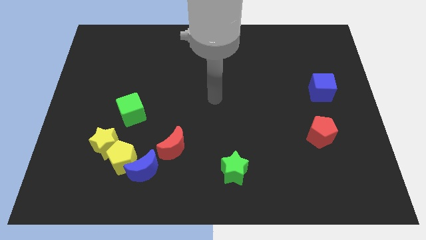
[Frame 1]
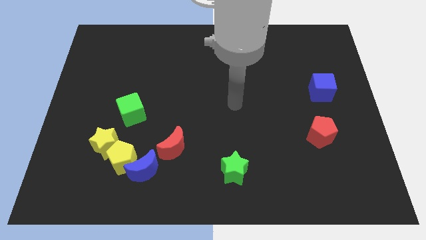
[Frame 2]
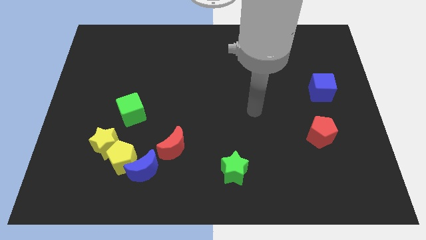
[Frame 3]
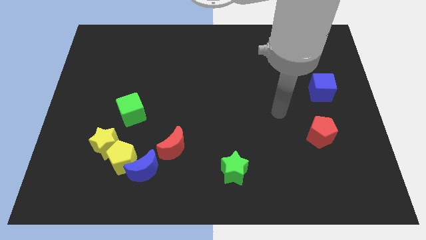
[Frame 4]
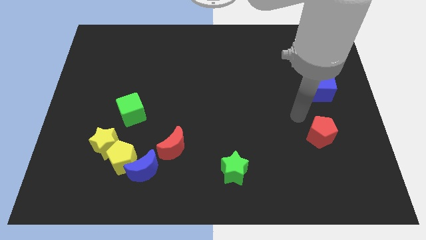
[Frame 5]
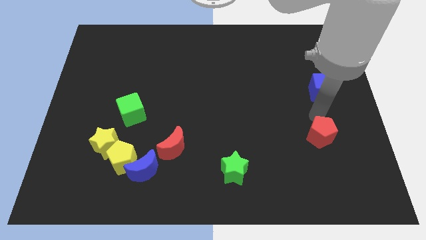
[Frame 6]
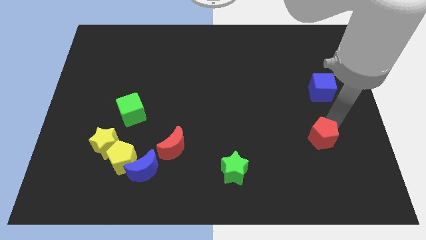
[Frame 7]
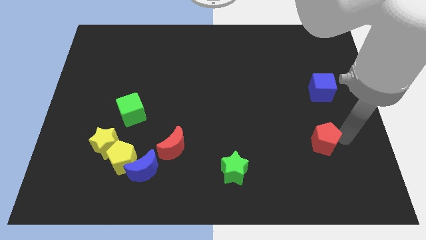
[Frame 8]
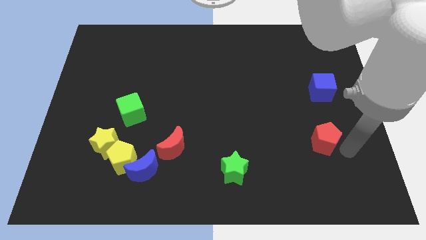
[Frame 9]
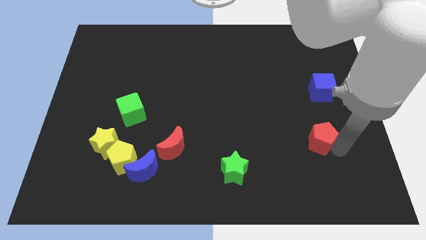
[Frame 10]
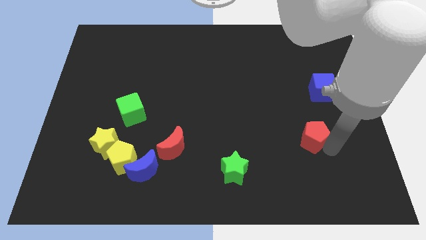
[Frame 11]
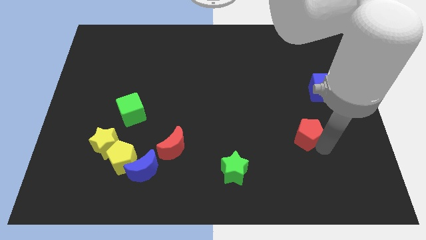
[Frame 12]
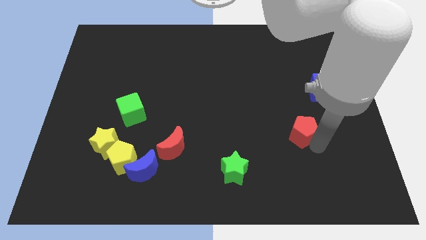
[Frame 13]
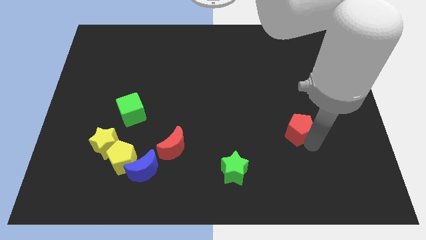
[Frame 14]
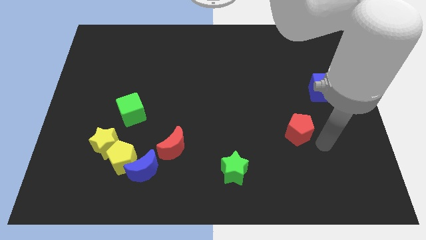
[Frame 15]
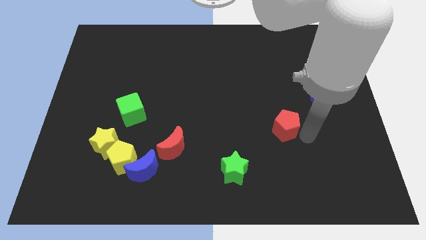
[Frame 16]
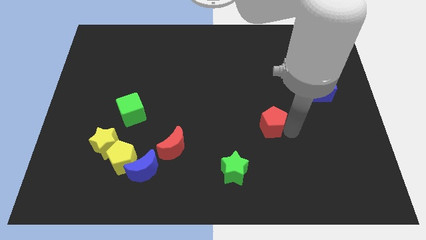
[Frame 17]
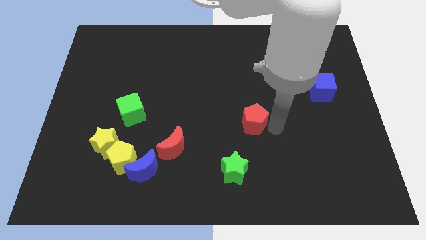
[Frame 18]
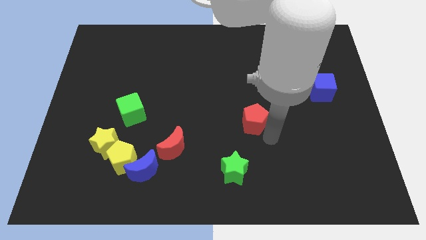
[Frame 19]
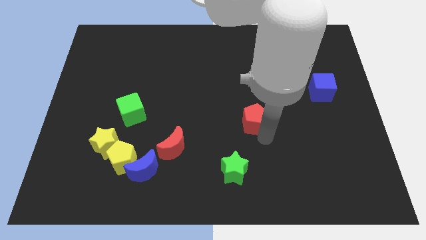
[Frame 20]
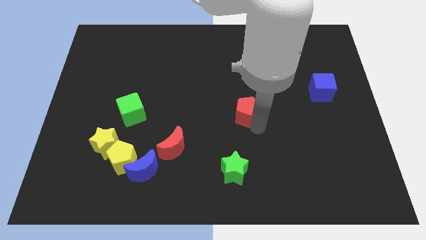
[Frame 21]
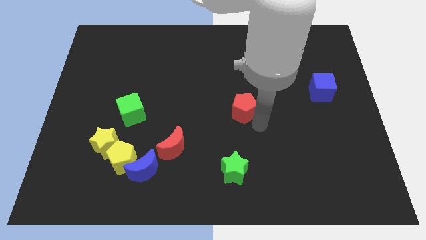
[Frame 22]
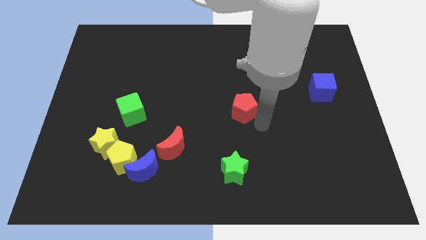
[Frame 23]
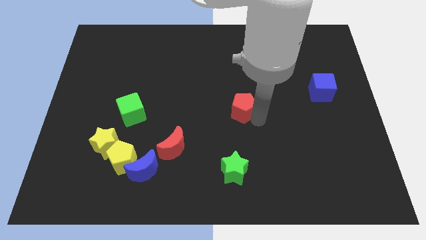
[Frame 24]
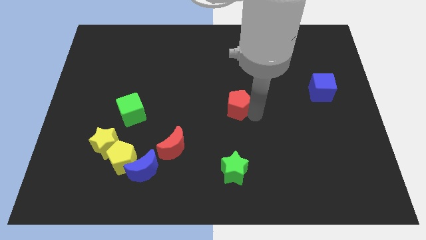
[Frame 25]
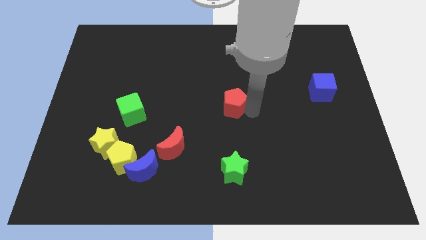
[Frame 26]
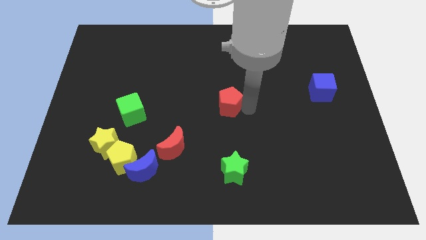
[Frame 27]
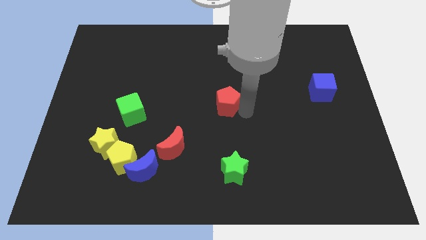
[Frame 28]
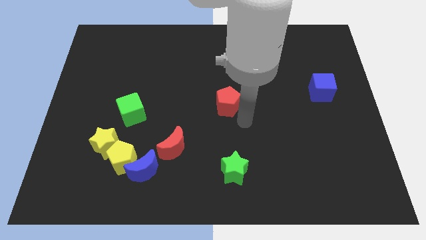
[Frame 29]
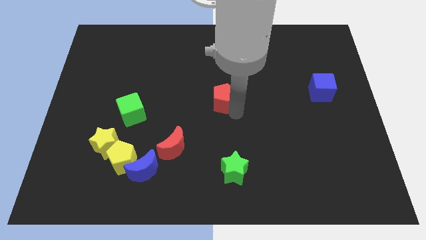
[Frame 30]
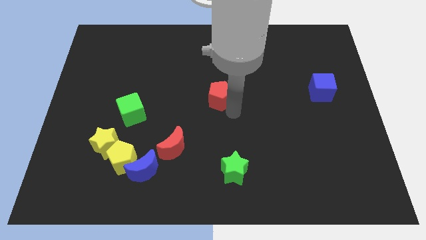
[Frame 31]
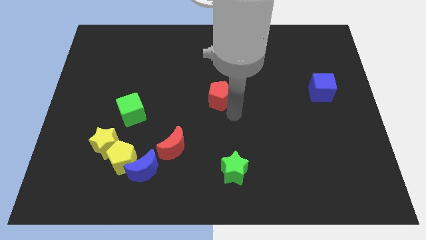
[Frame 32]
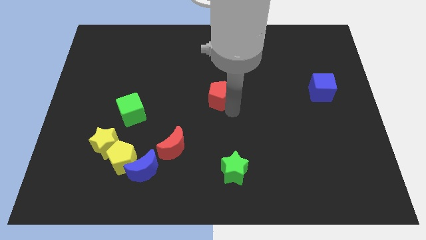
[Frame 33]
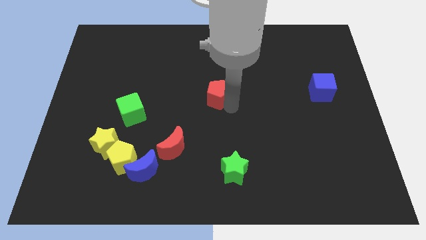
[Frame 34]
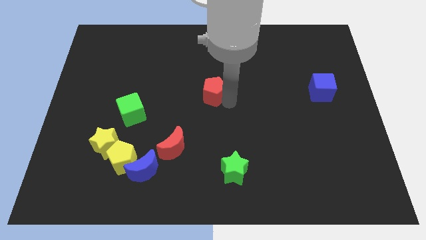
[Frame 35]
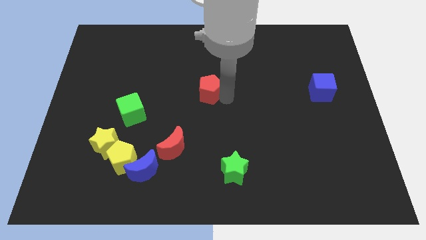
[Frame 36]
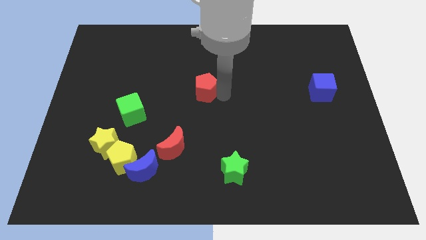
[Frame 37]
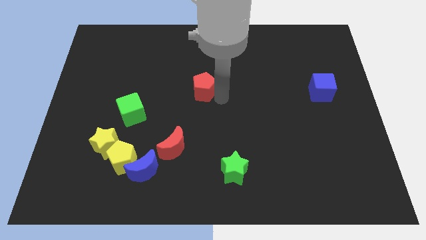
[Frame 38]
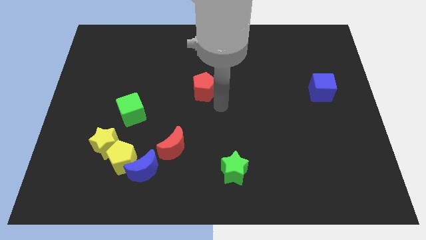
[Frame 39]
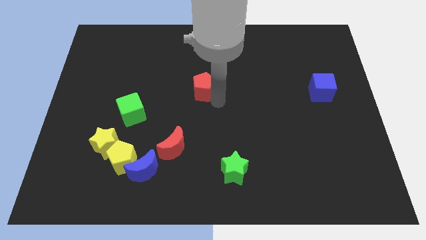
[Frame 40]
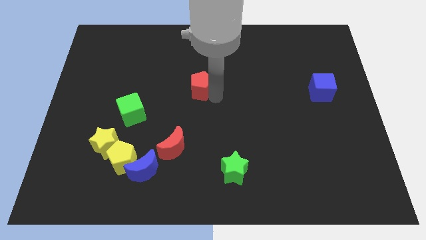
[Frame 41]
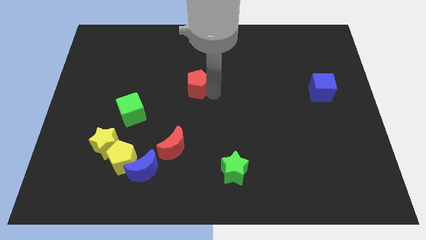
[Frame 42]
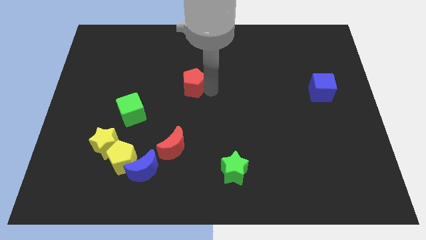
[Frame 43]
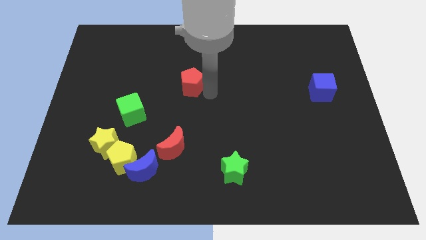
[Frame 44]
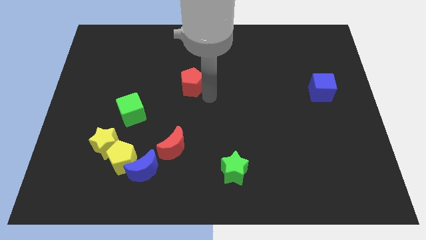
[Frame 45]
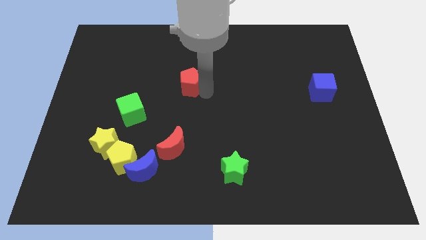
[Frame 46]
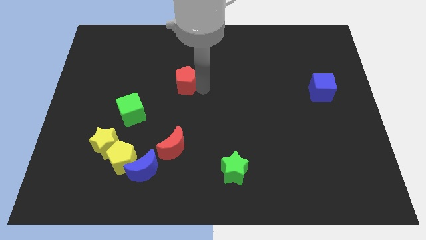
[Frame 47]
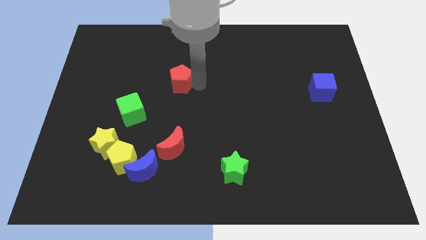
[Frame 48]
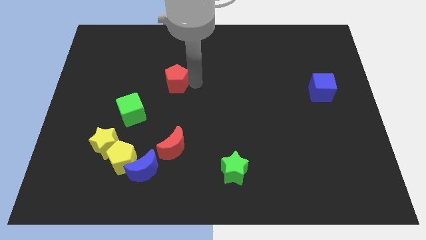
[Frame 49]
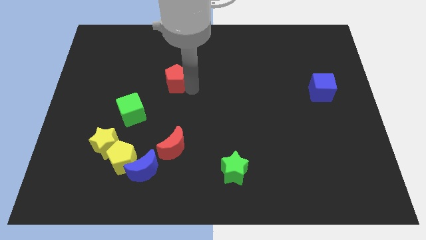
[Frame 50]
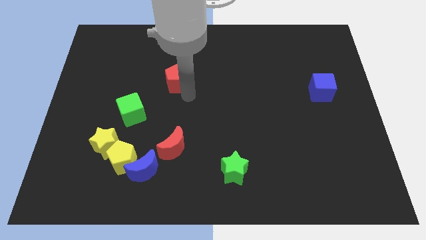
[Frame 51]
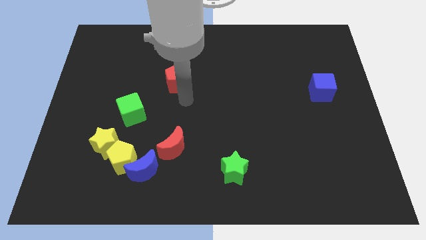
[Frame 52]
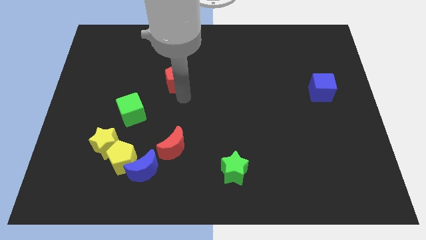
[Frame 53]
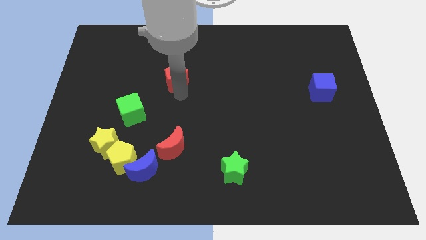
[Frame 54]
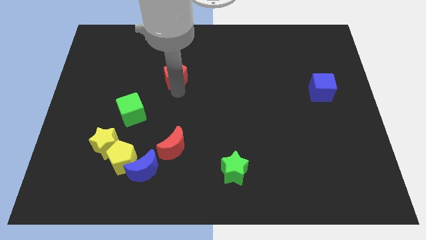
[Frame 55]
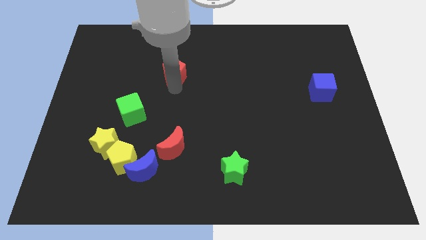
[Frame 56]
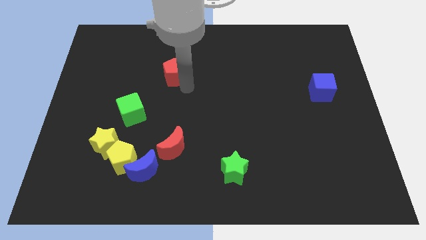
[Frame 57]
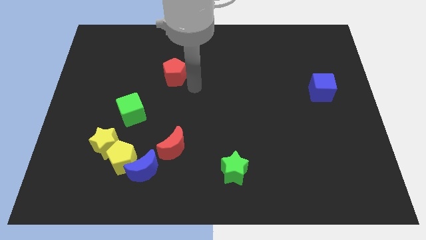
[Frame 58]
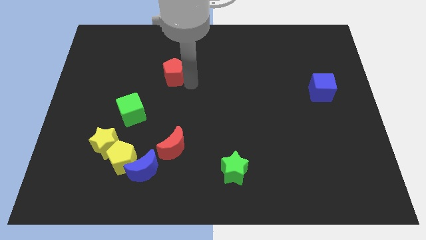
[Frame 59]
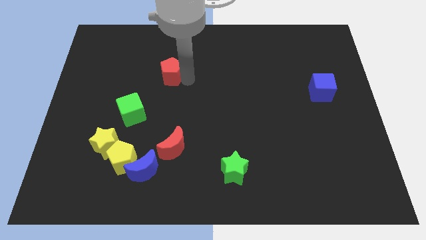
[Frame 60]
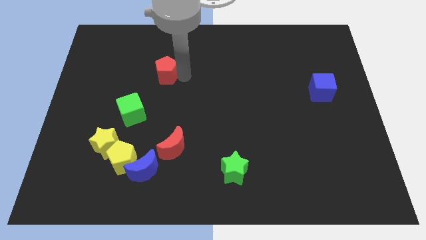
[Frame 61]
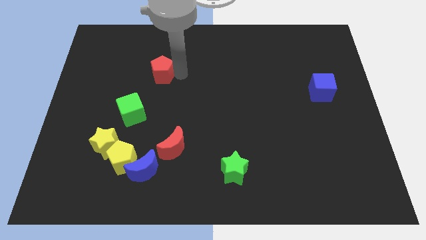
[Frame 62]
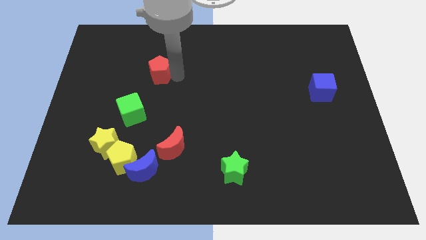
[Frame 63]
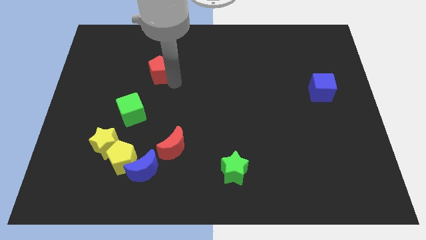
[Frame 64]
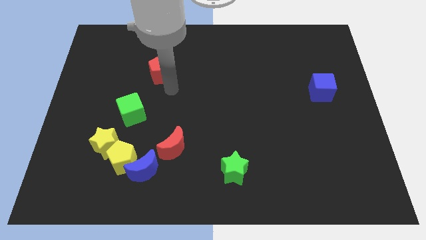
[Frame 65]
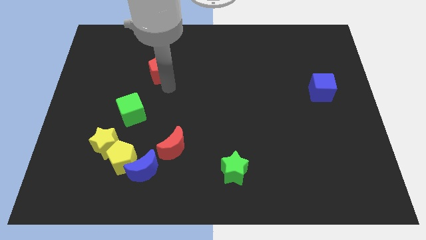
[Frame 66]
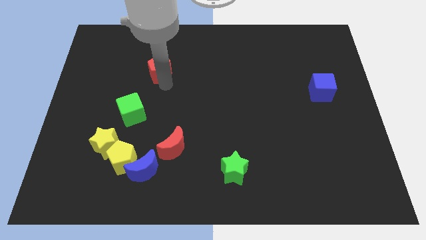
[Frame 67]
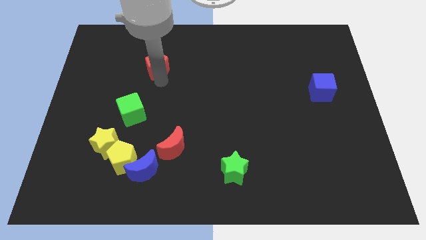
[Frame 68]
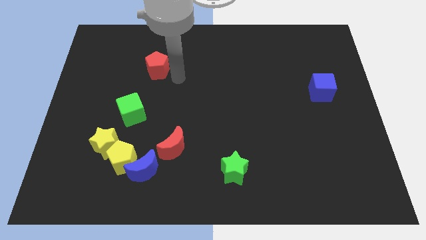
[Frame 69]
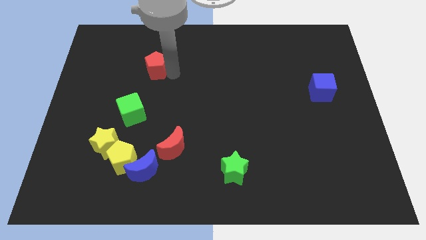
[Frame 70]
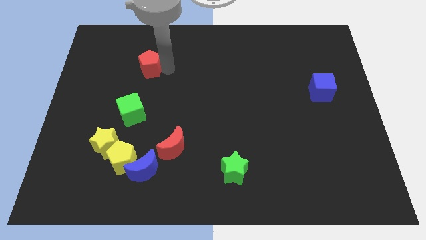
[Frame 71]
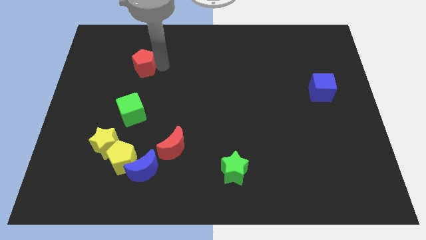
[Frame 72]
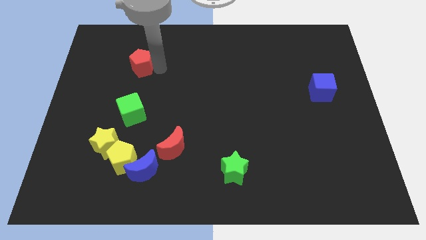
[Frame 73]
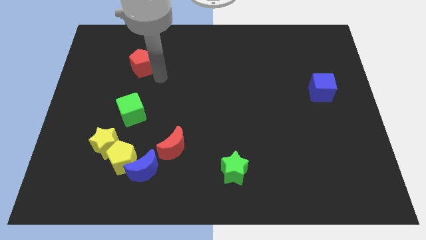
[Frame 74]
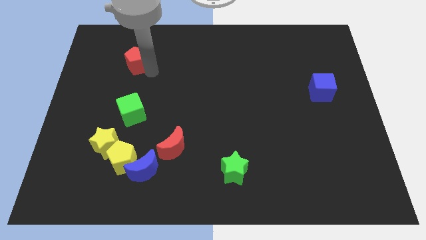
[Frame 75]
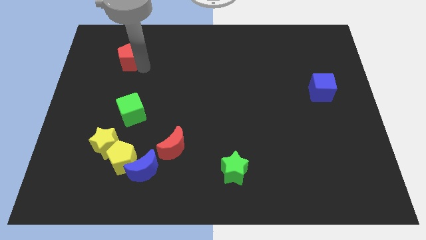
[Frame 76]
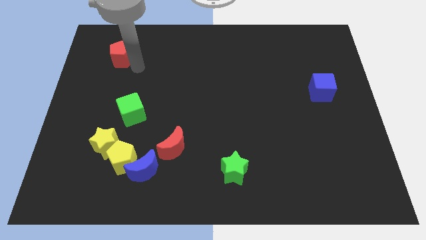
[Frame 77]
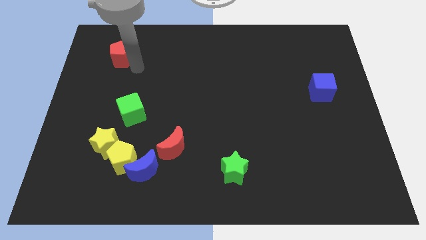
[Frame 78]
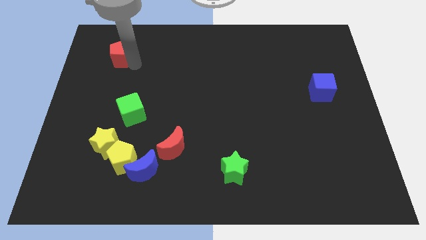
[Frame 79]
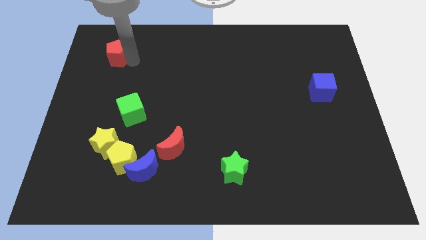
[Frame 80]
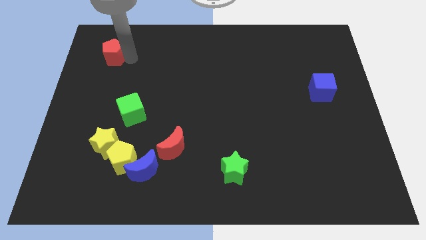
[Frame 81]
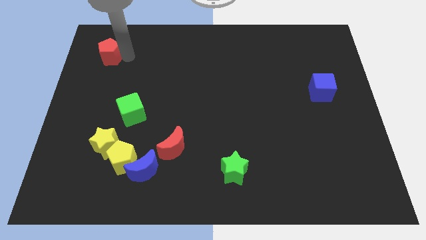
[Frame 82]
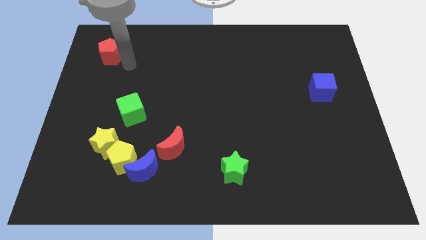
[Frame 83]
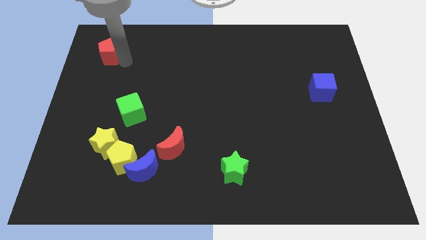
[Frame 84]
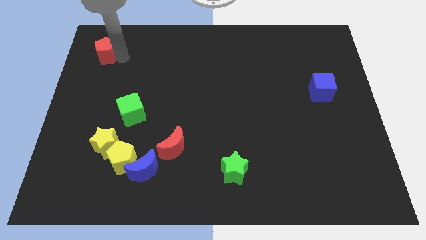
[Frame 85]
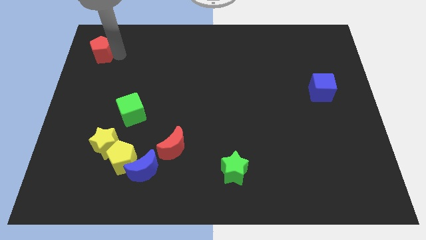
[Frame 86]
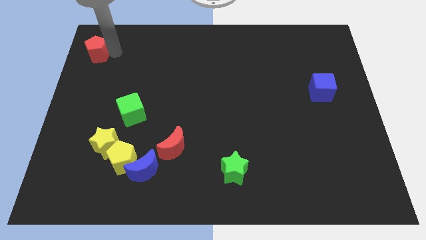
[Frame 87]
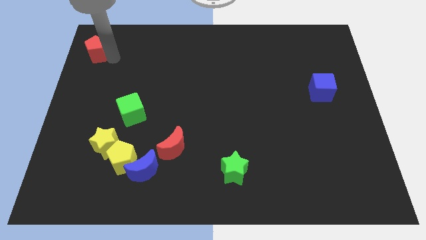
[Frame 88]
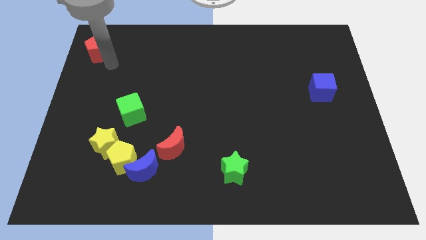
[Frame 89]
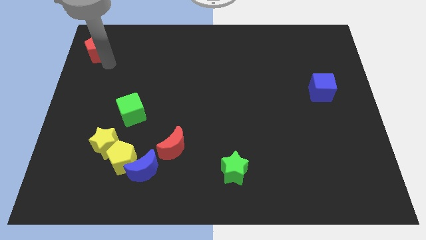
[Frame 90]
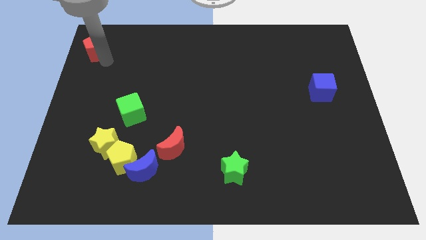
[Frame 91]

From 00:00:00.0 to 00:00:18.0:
move the red pentagon to the top left corner
